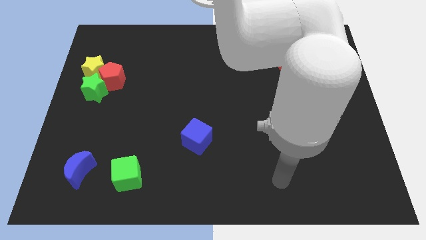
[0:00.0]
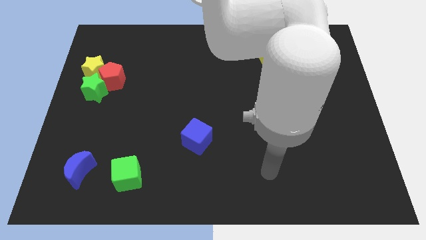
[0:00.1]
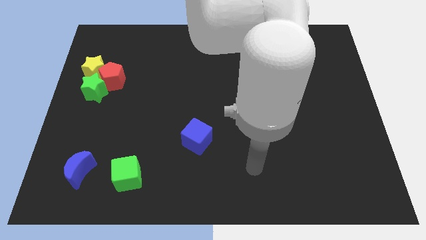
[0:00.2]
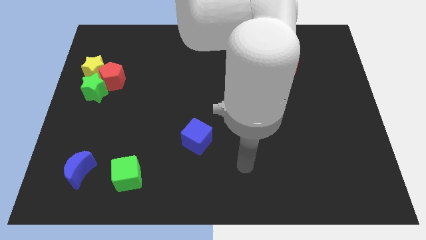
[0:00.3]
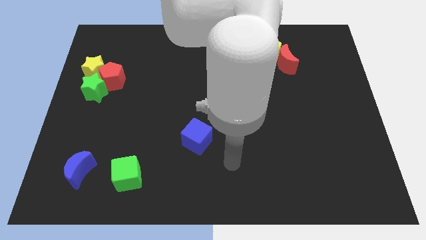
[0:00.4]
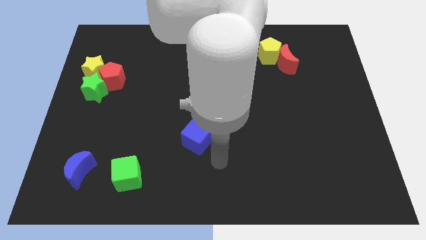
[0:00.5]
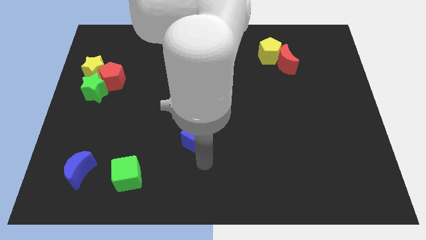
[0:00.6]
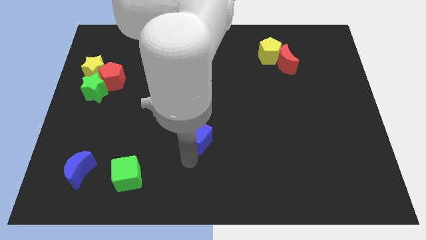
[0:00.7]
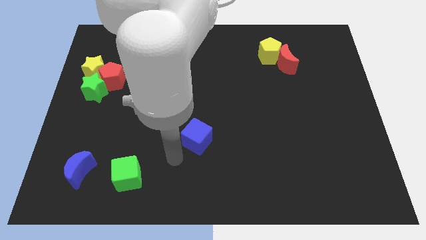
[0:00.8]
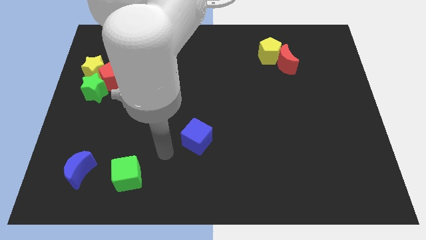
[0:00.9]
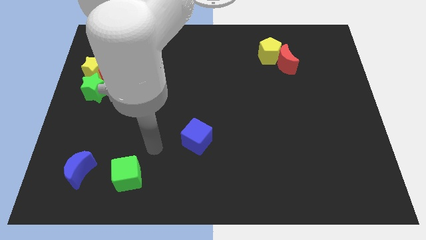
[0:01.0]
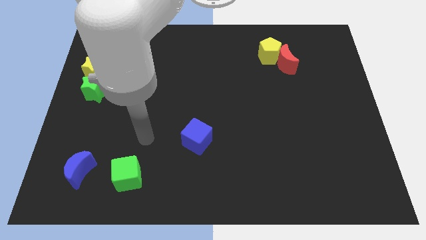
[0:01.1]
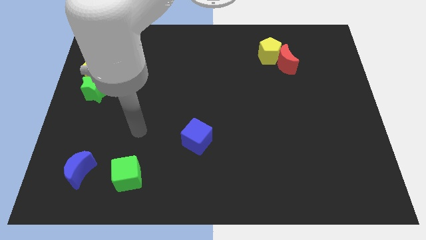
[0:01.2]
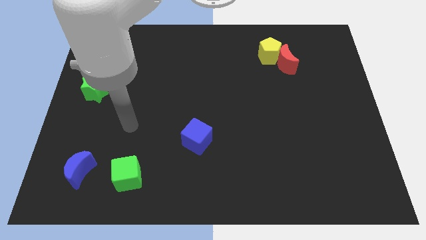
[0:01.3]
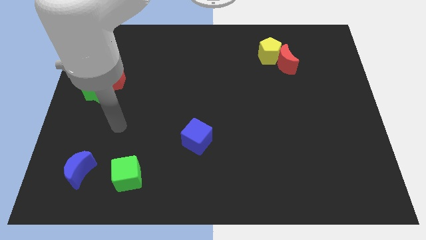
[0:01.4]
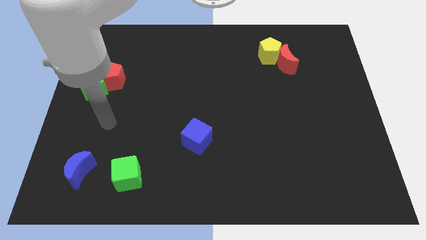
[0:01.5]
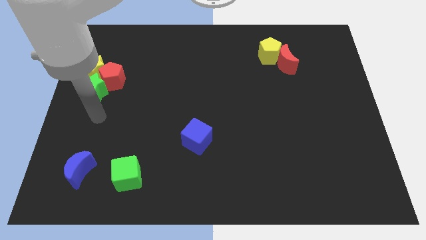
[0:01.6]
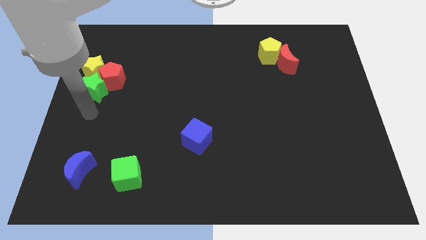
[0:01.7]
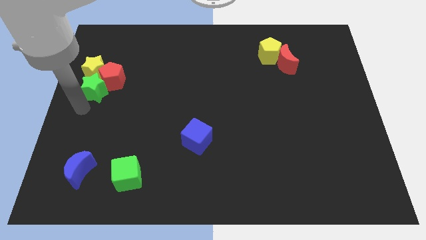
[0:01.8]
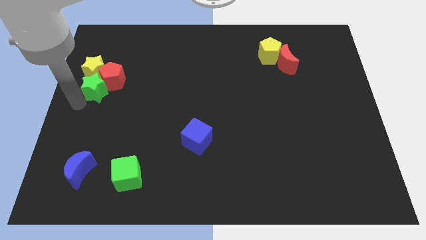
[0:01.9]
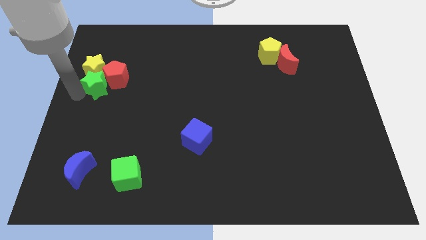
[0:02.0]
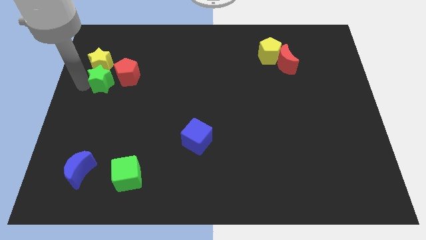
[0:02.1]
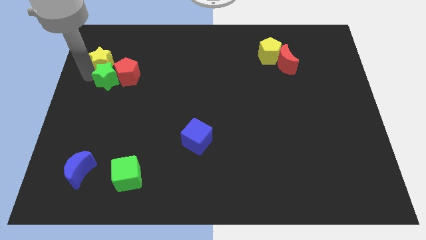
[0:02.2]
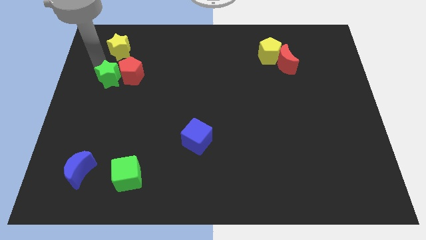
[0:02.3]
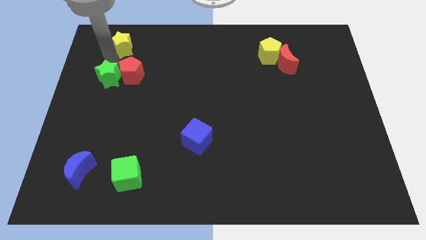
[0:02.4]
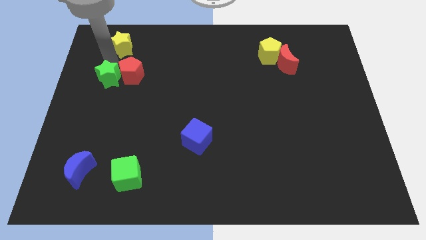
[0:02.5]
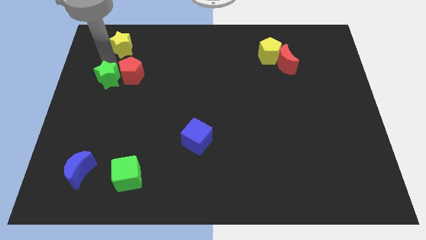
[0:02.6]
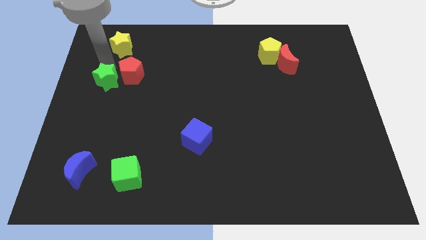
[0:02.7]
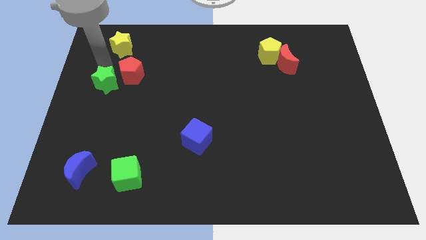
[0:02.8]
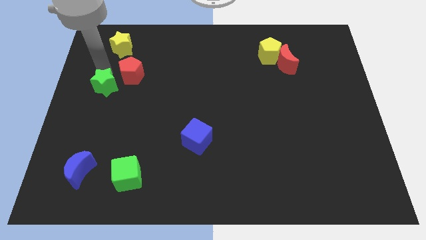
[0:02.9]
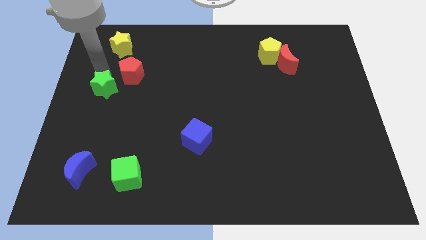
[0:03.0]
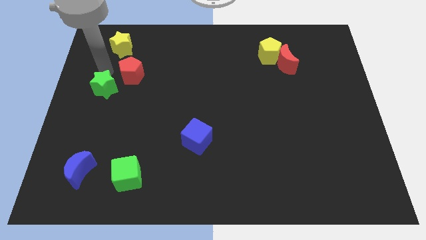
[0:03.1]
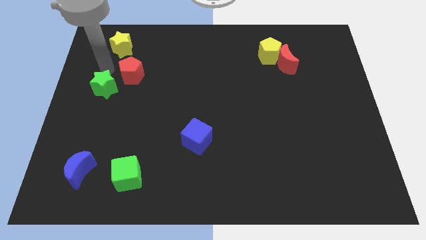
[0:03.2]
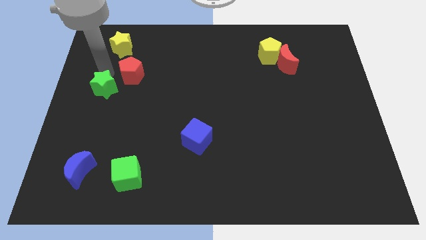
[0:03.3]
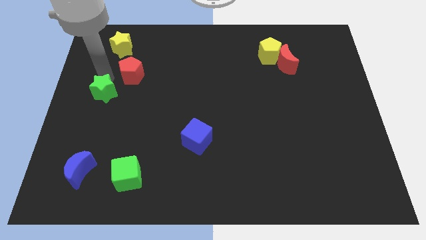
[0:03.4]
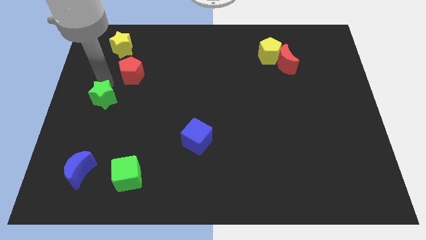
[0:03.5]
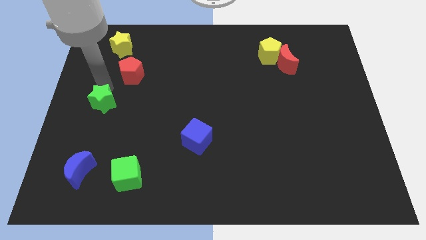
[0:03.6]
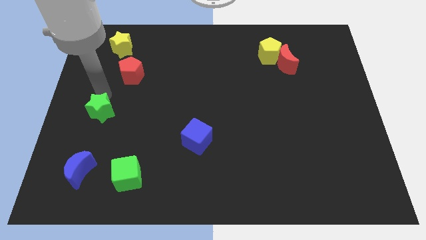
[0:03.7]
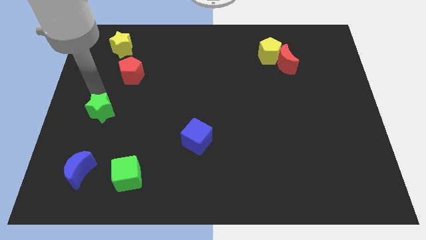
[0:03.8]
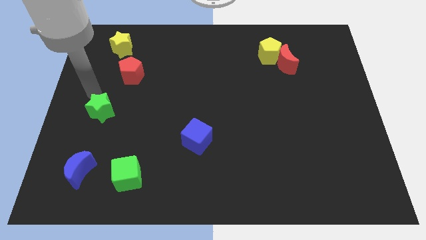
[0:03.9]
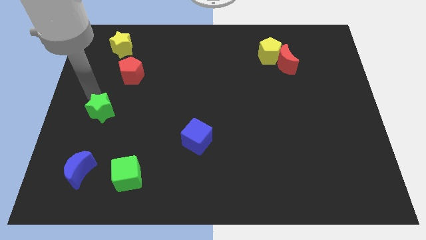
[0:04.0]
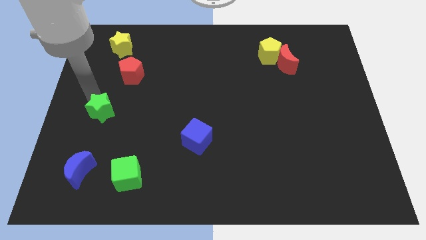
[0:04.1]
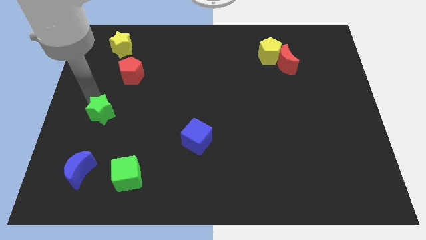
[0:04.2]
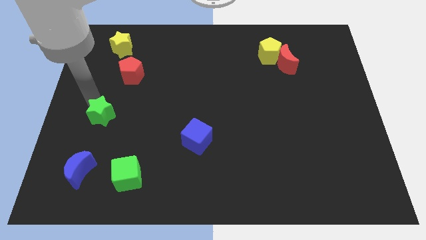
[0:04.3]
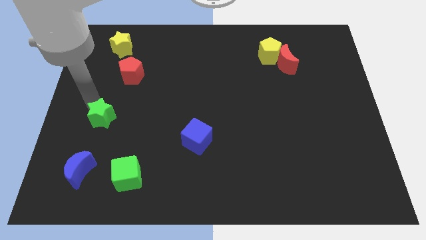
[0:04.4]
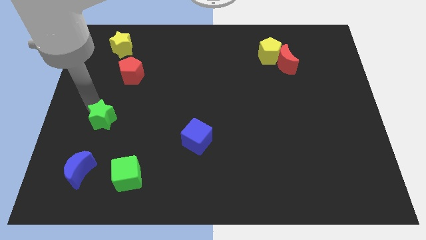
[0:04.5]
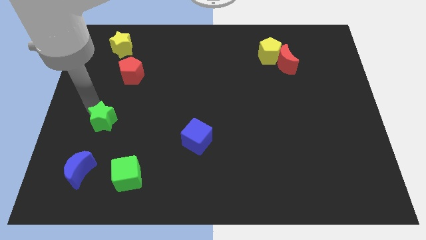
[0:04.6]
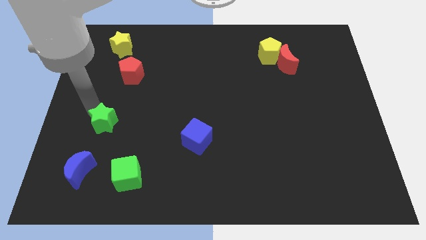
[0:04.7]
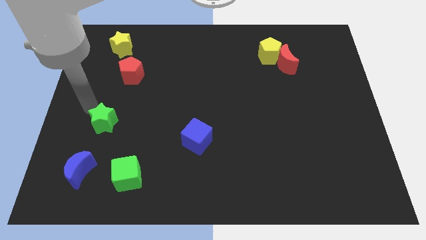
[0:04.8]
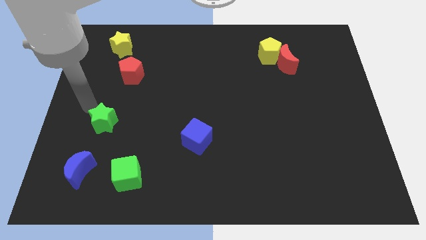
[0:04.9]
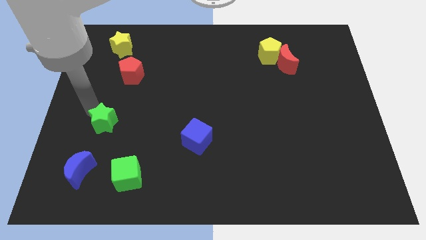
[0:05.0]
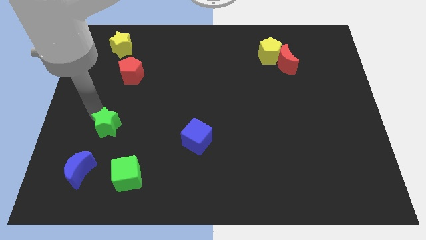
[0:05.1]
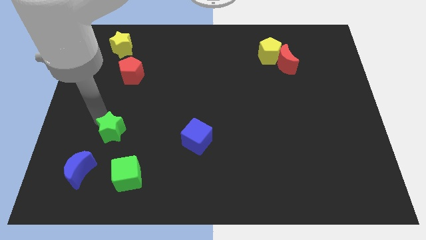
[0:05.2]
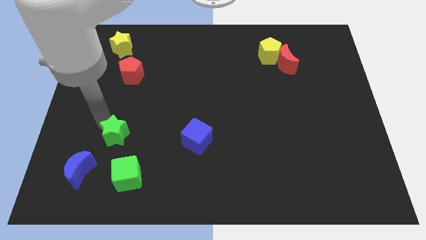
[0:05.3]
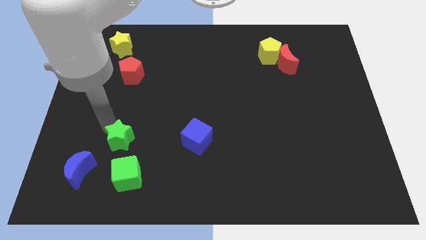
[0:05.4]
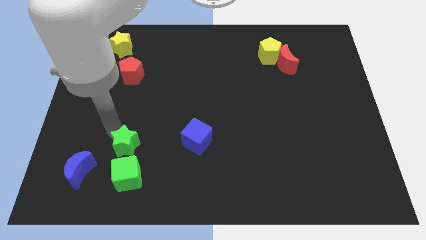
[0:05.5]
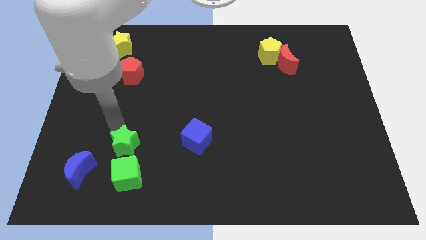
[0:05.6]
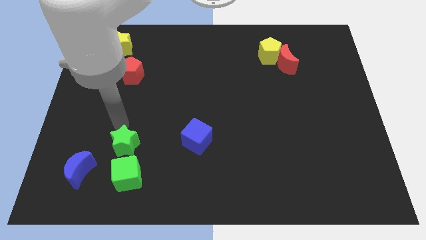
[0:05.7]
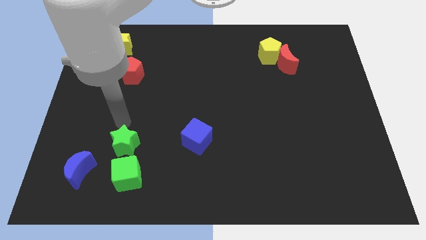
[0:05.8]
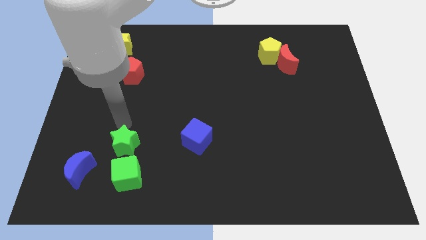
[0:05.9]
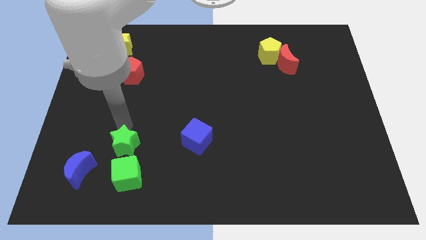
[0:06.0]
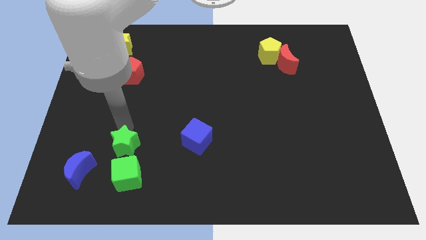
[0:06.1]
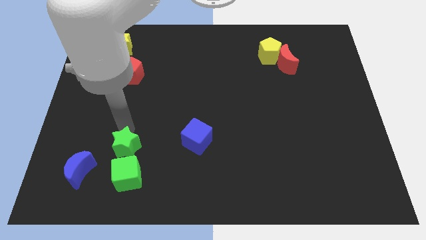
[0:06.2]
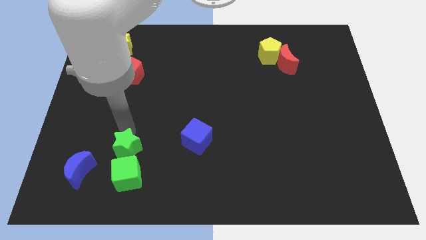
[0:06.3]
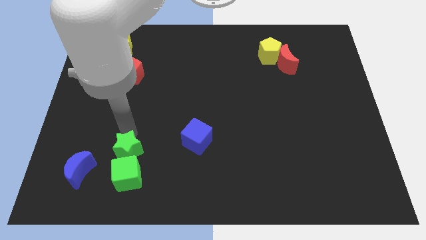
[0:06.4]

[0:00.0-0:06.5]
put the green star to the green cube

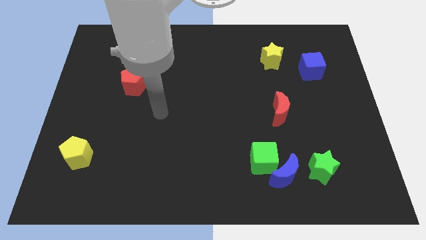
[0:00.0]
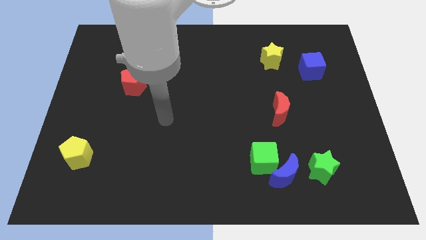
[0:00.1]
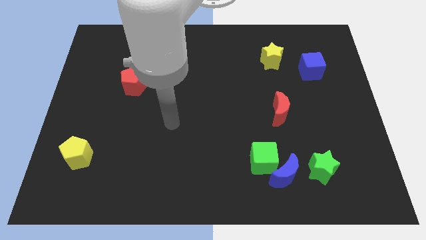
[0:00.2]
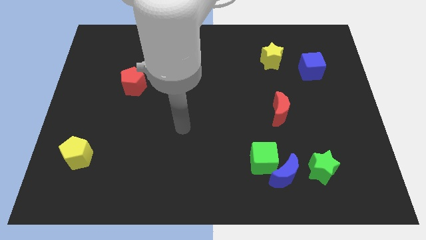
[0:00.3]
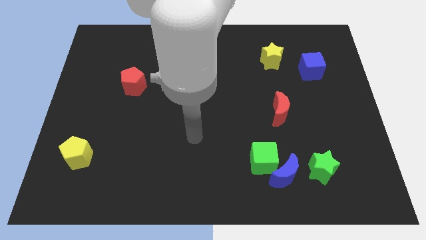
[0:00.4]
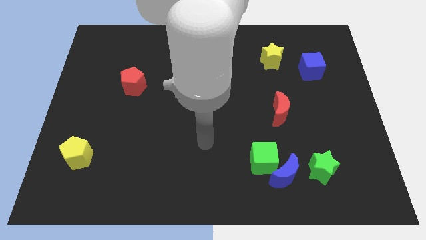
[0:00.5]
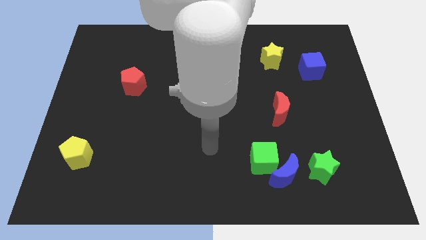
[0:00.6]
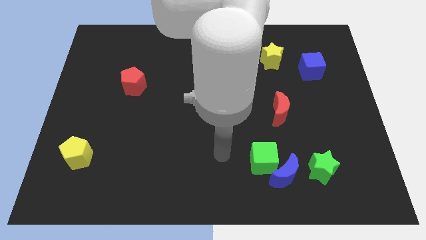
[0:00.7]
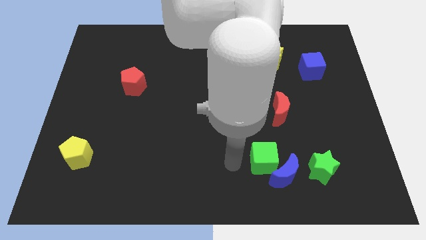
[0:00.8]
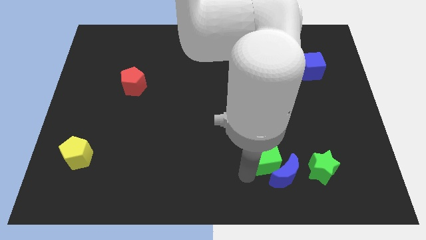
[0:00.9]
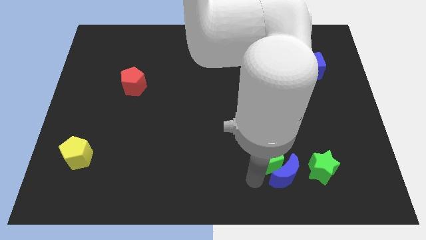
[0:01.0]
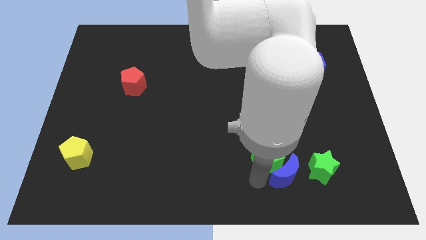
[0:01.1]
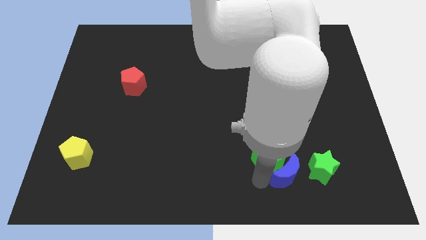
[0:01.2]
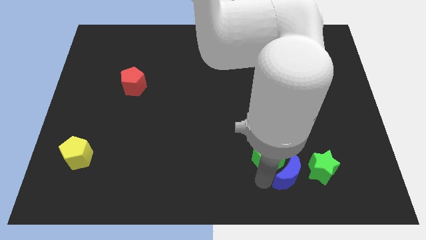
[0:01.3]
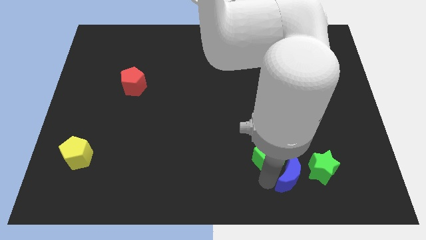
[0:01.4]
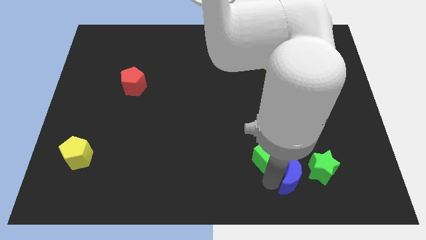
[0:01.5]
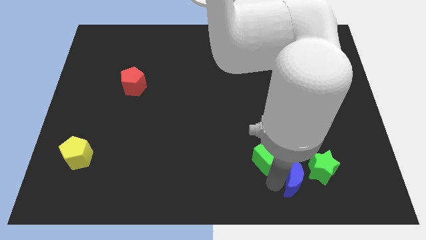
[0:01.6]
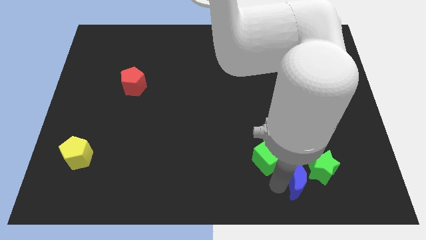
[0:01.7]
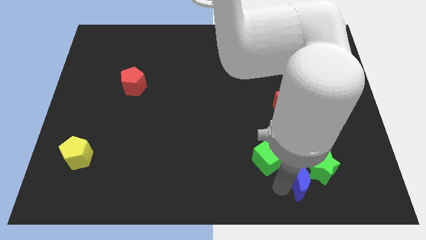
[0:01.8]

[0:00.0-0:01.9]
slide the blue moon next to the green star
